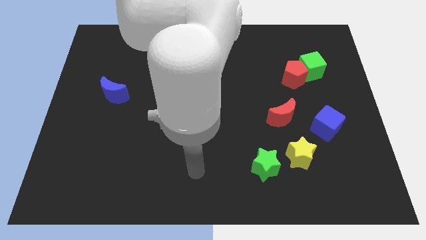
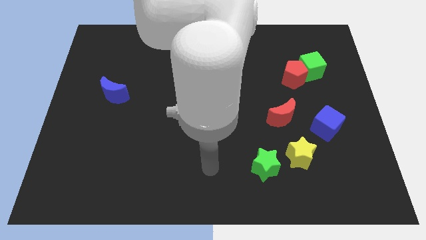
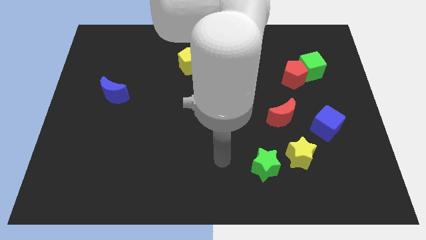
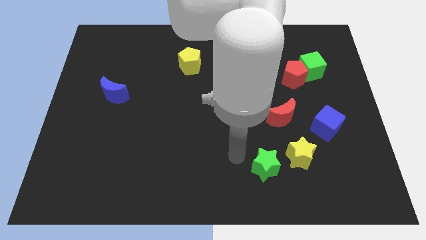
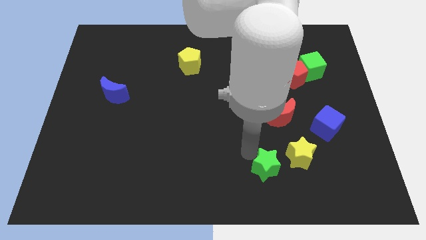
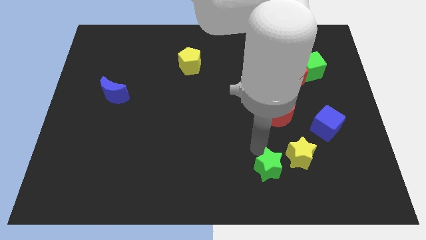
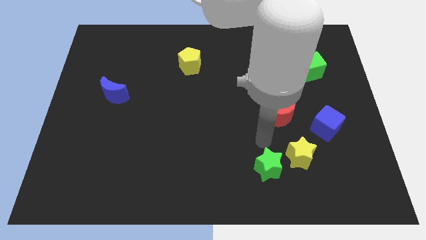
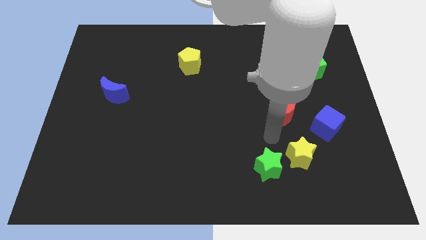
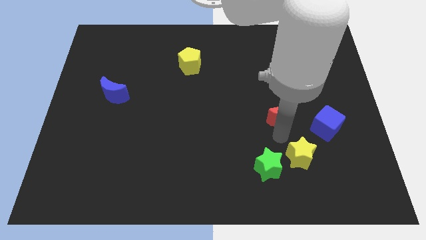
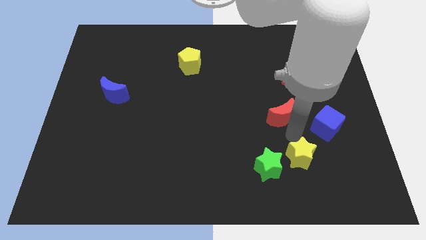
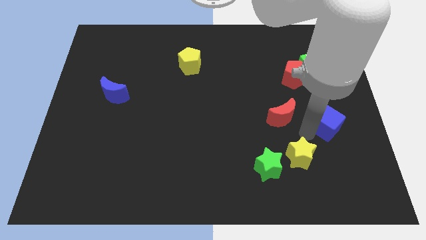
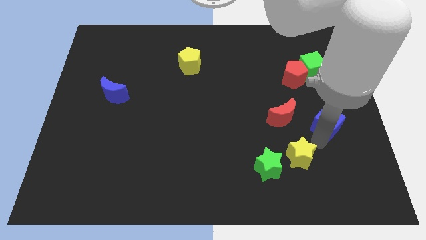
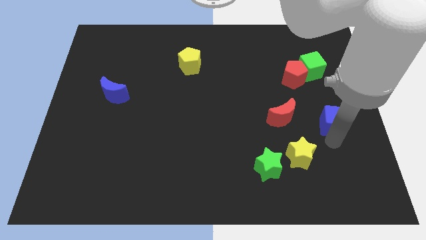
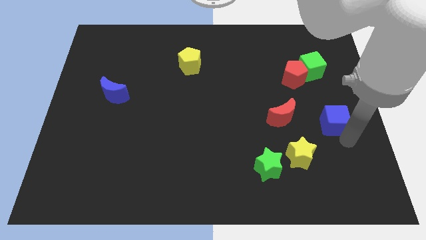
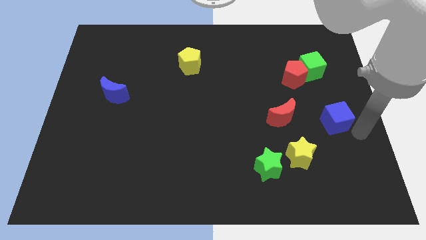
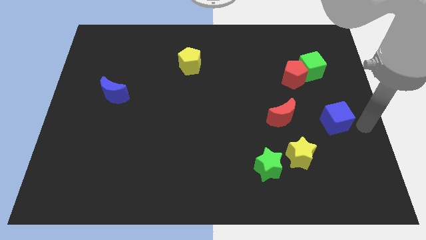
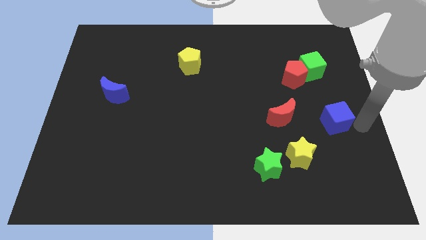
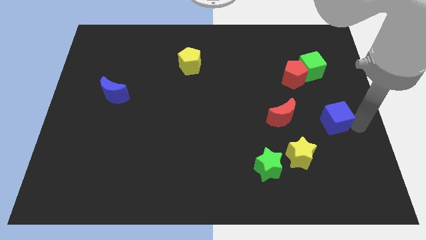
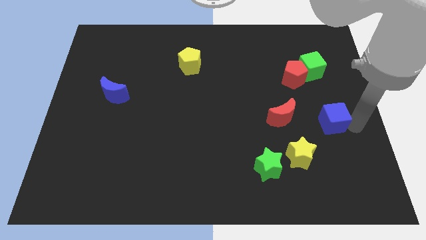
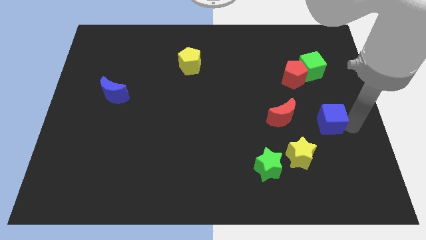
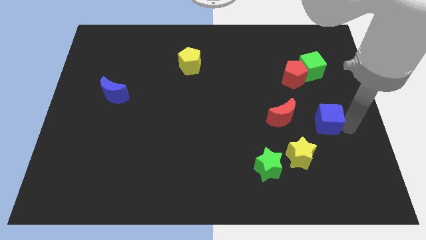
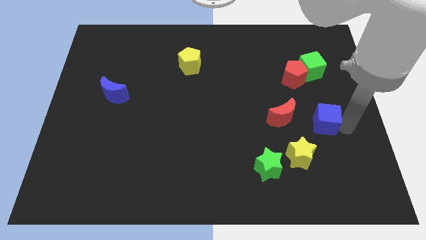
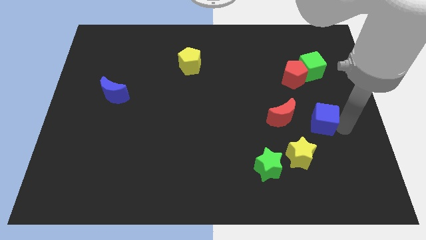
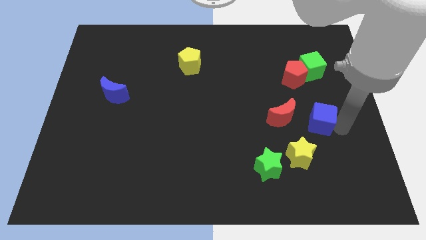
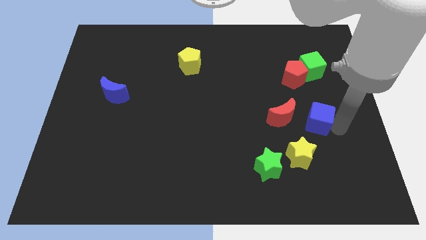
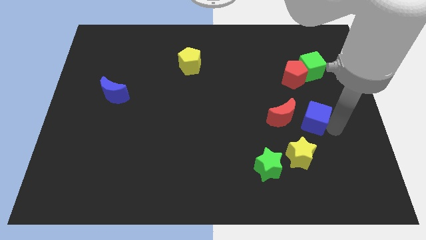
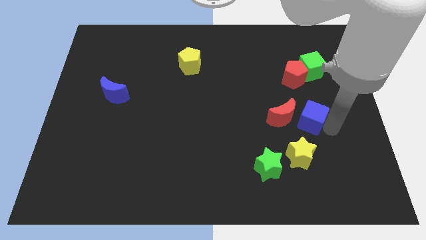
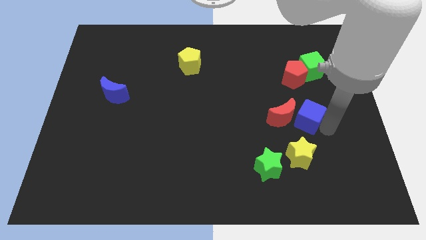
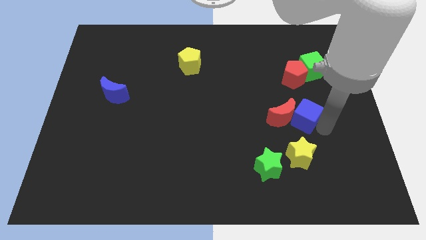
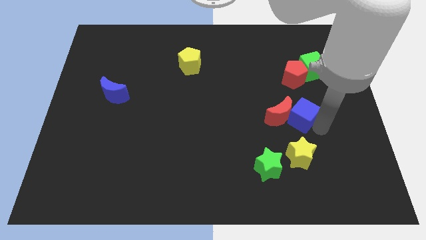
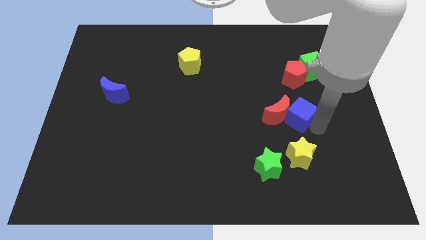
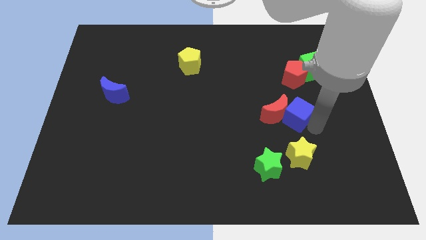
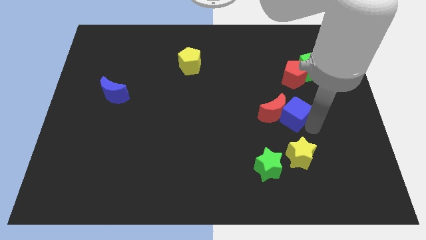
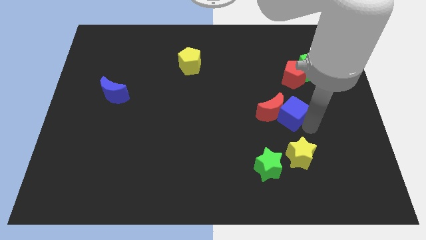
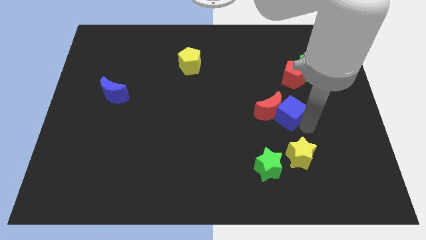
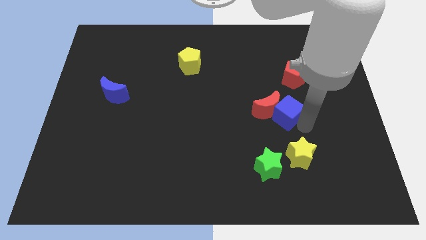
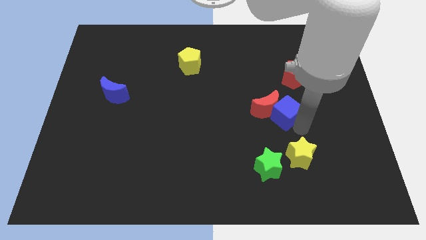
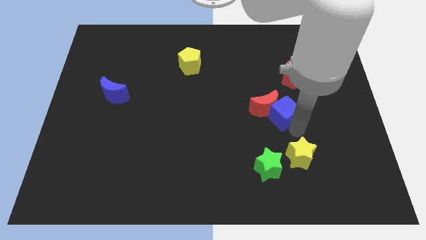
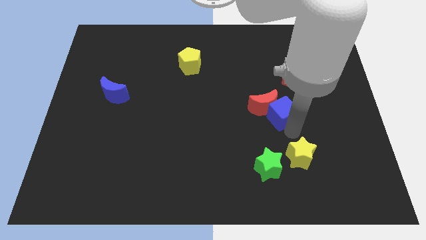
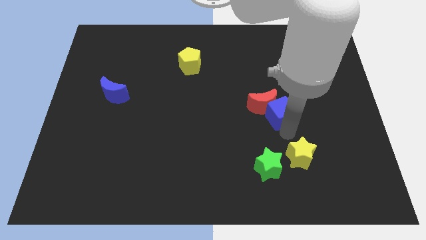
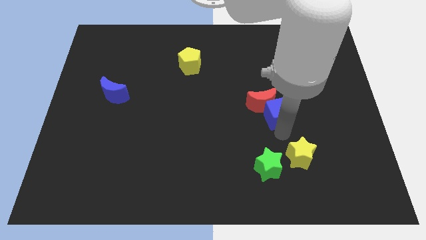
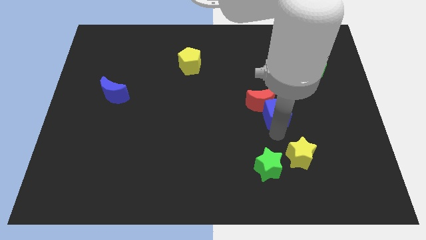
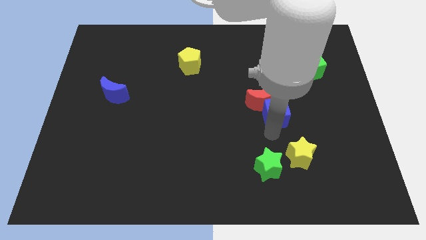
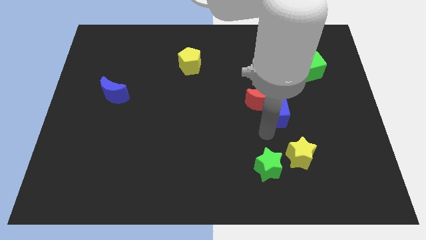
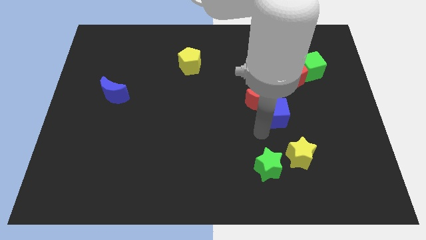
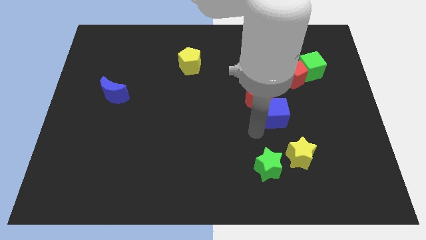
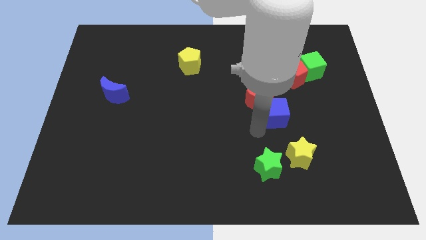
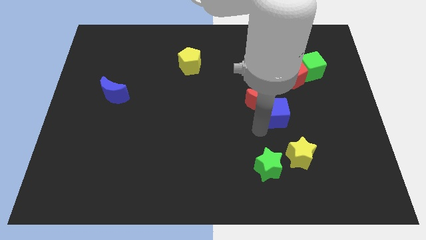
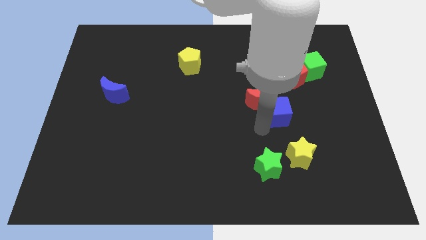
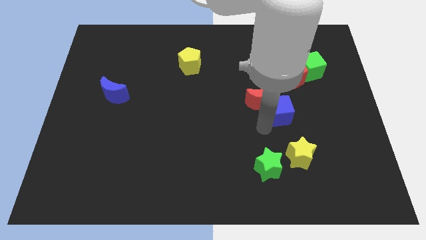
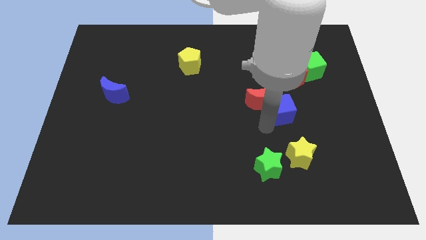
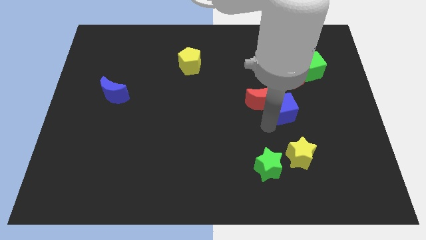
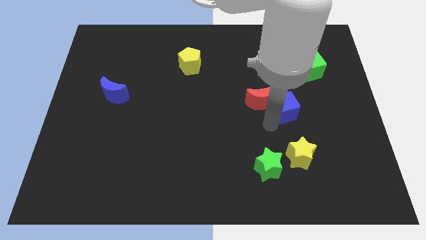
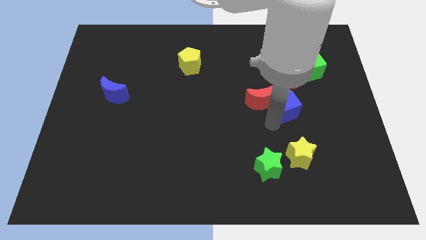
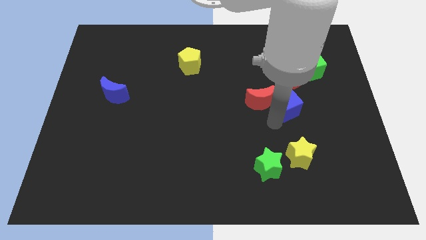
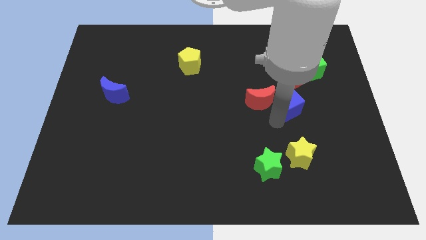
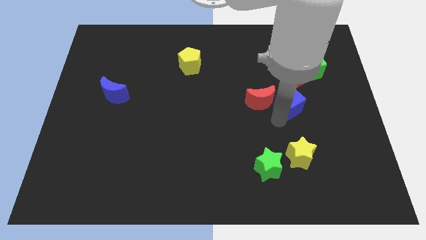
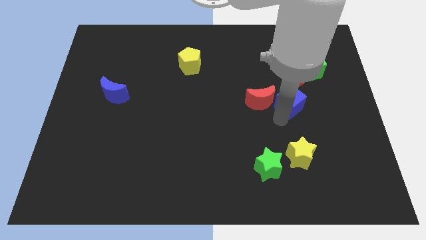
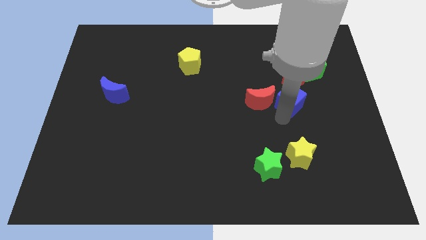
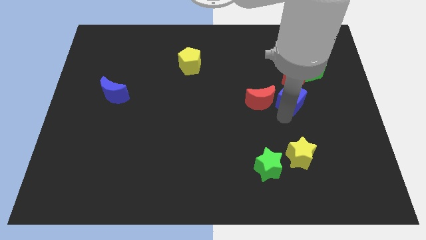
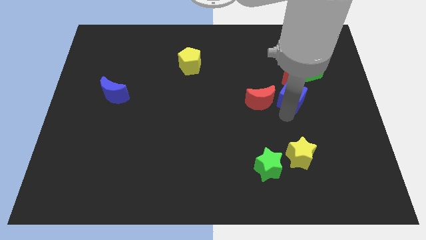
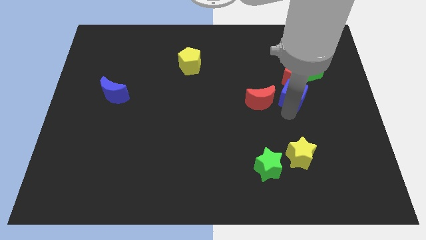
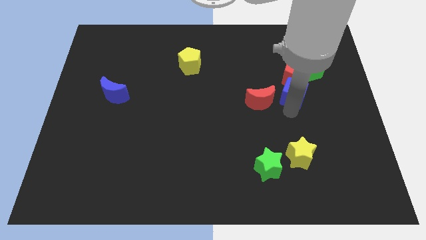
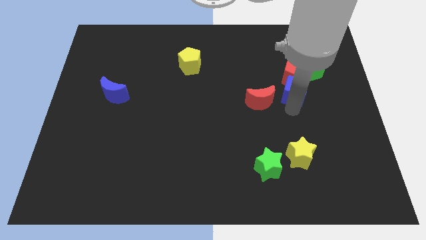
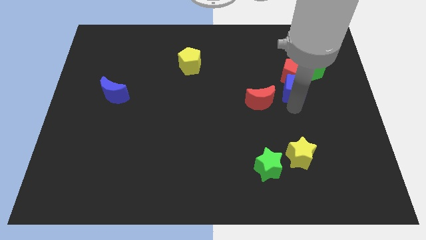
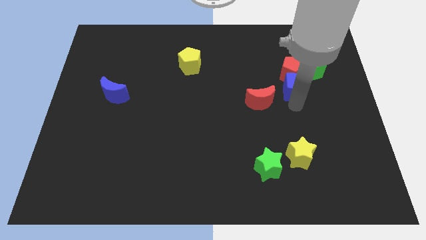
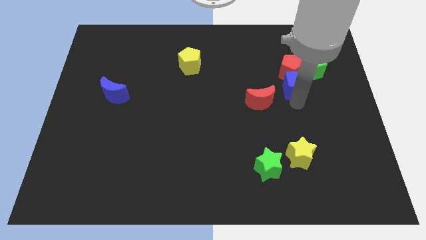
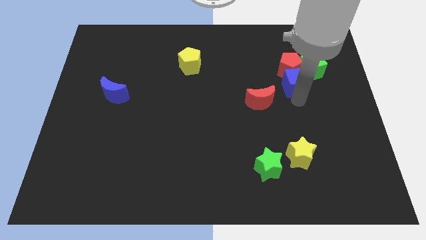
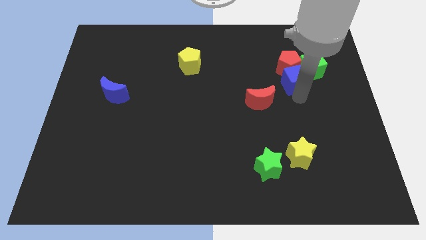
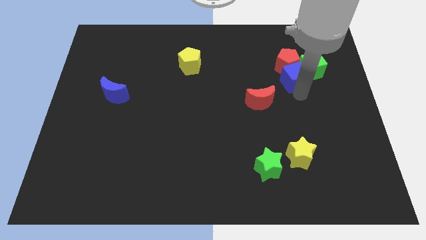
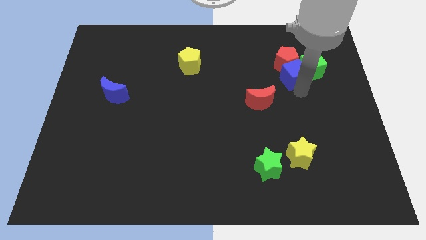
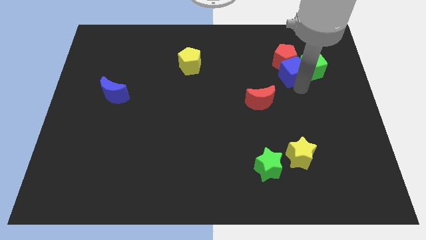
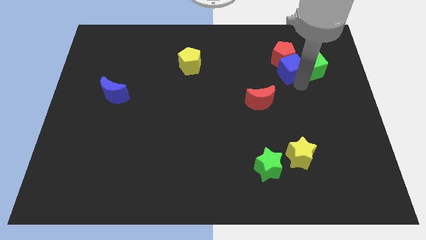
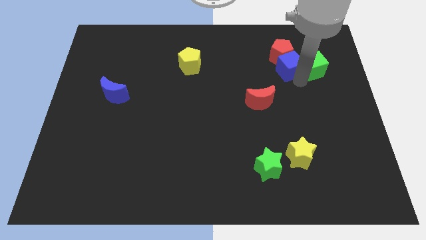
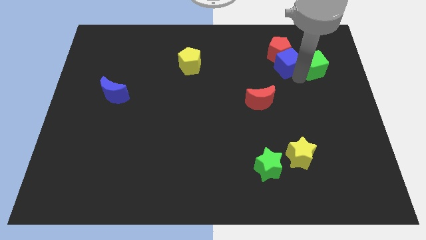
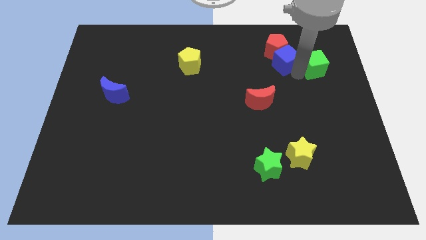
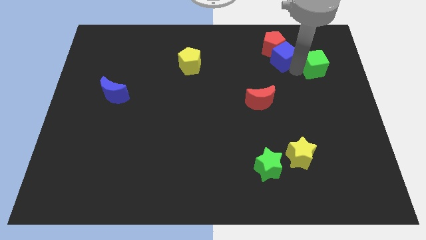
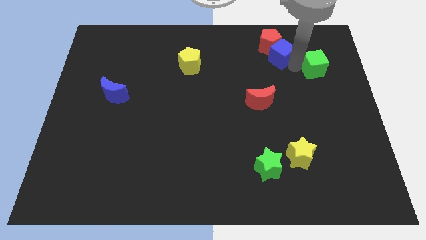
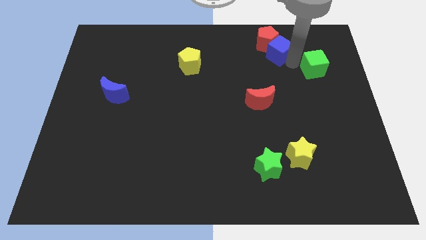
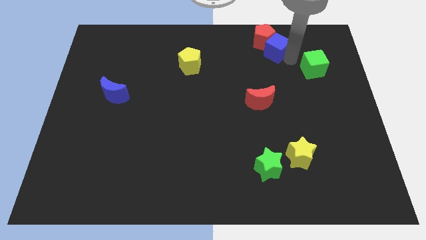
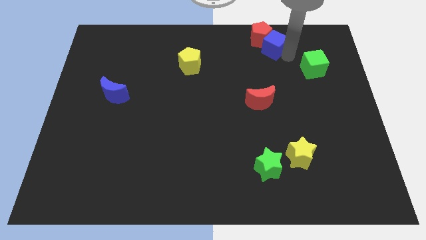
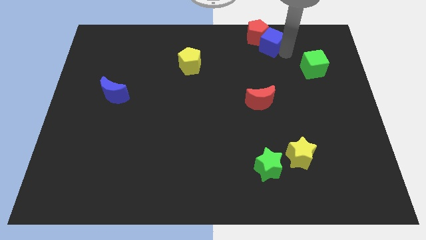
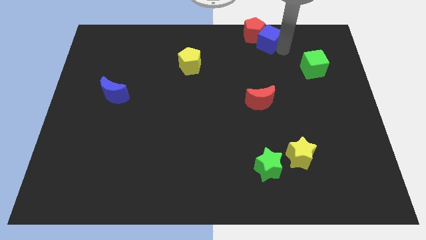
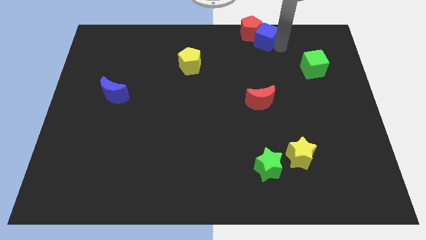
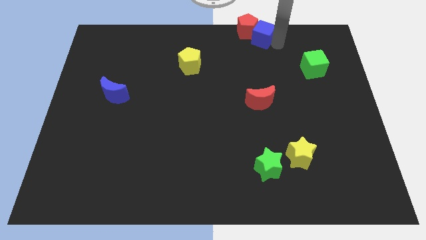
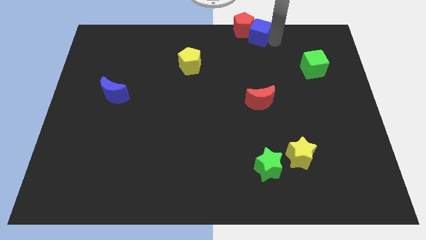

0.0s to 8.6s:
push the blue cube to the top
